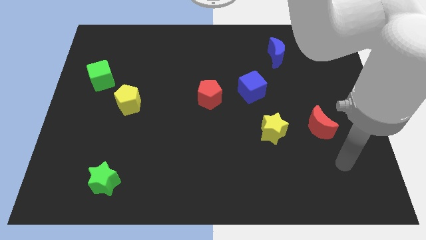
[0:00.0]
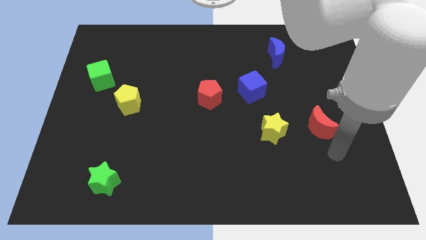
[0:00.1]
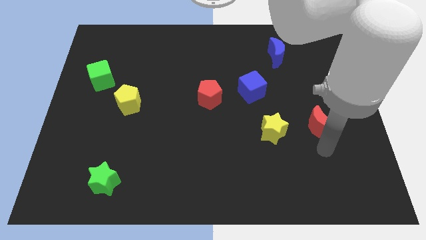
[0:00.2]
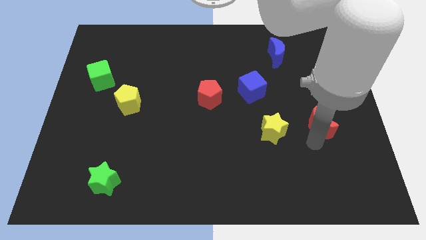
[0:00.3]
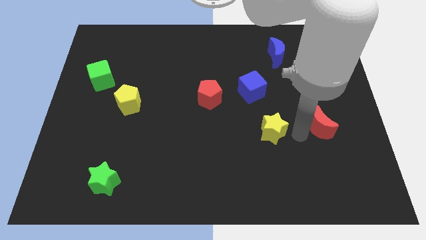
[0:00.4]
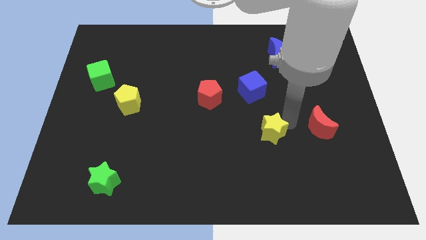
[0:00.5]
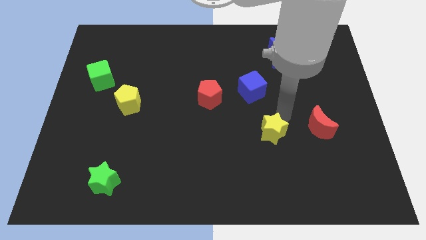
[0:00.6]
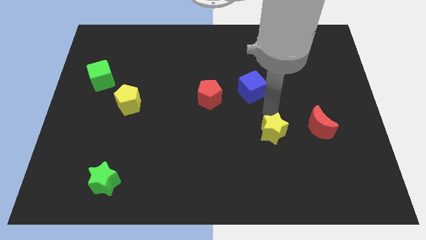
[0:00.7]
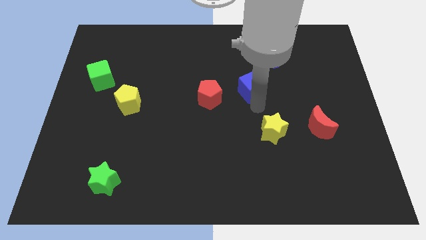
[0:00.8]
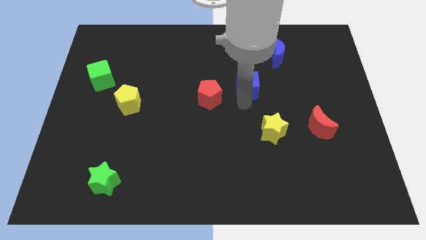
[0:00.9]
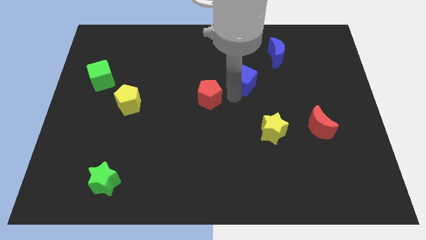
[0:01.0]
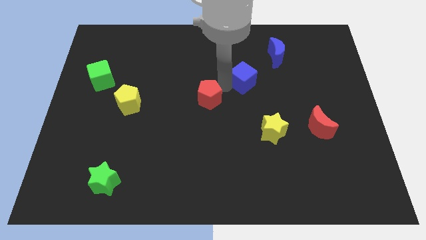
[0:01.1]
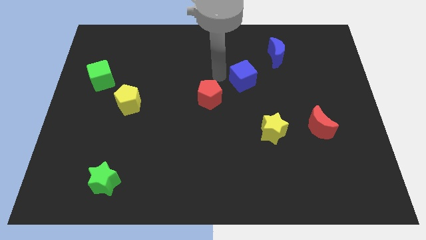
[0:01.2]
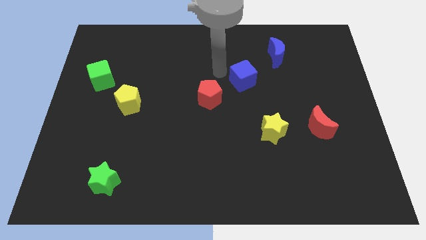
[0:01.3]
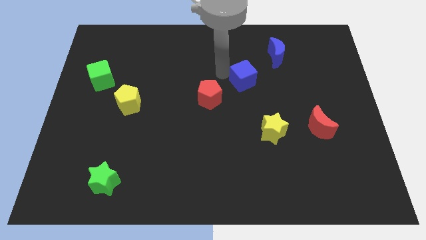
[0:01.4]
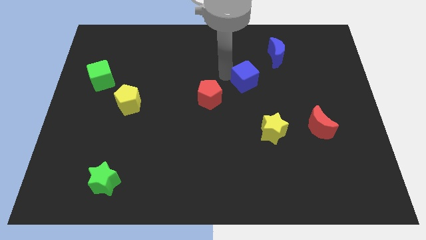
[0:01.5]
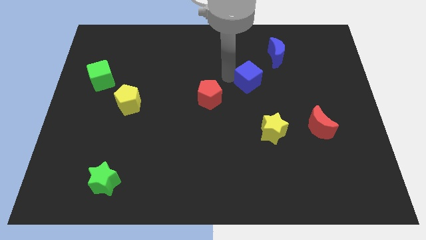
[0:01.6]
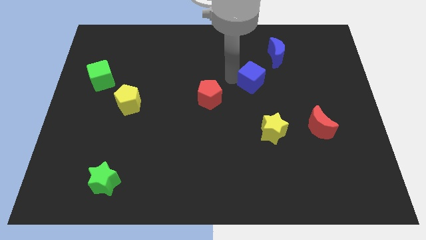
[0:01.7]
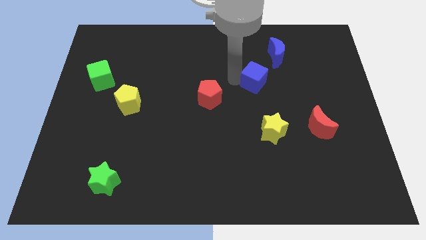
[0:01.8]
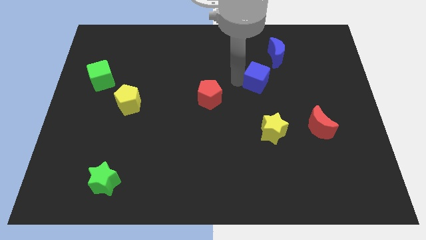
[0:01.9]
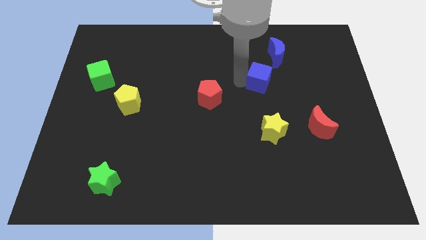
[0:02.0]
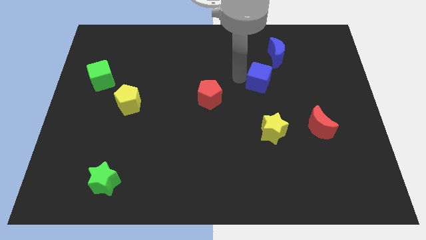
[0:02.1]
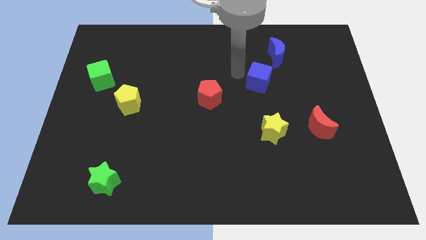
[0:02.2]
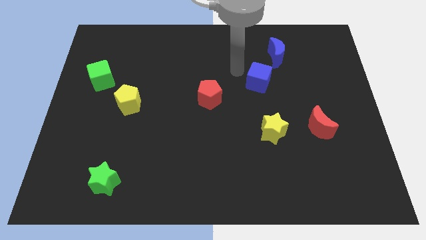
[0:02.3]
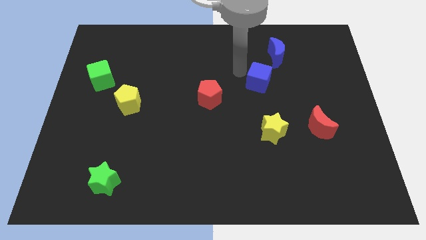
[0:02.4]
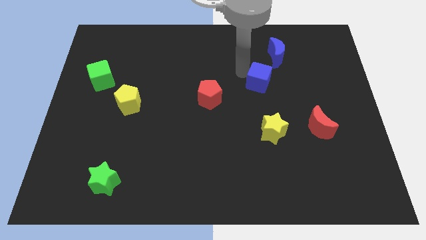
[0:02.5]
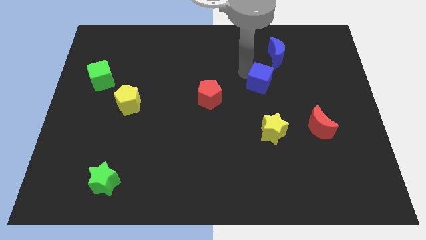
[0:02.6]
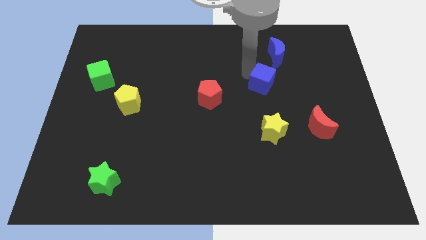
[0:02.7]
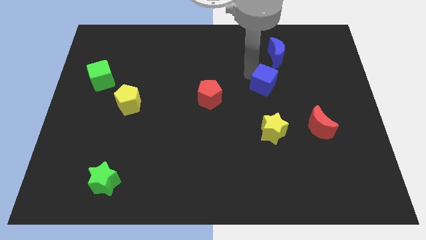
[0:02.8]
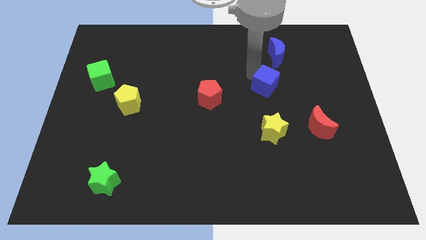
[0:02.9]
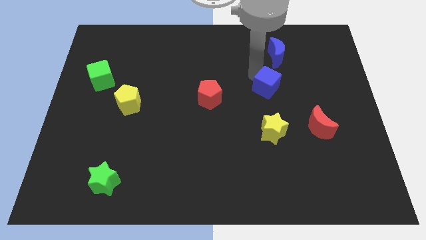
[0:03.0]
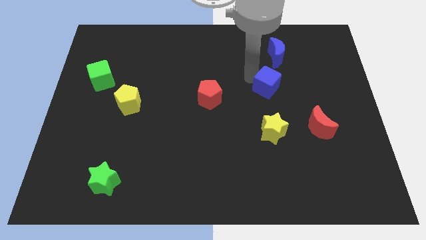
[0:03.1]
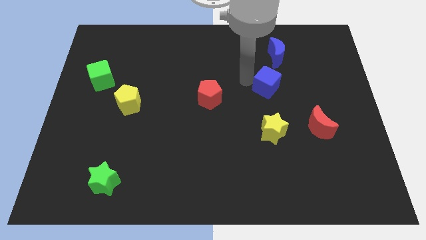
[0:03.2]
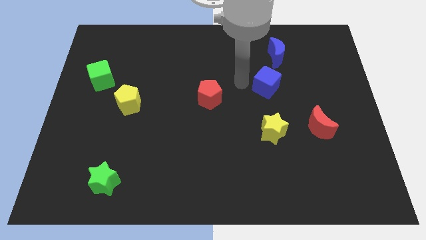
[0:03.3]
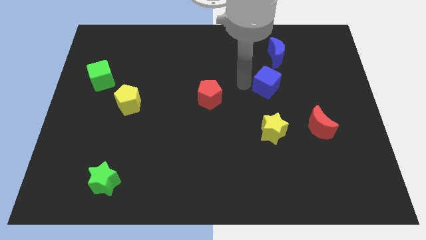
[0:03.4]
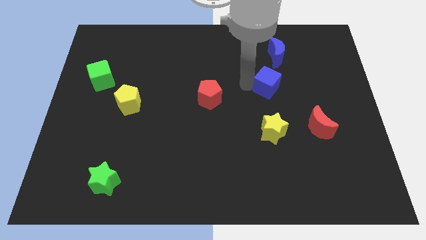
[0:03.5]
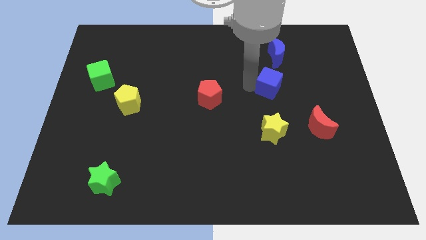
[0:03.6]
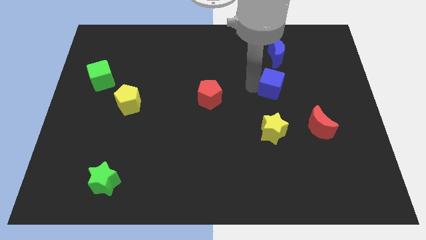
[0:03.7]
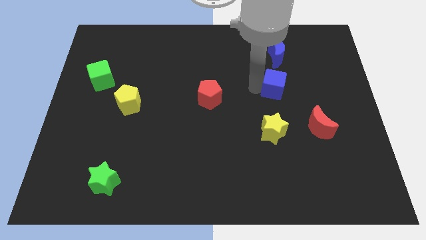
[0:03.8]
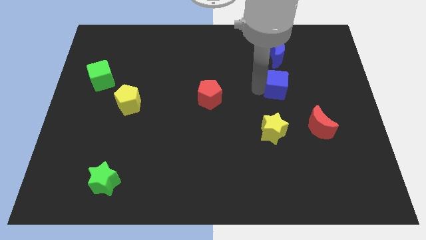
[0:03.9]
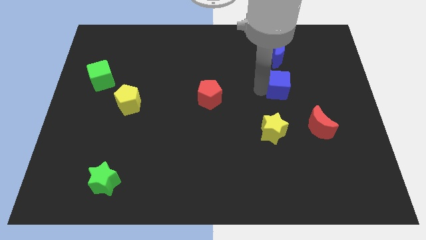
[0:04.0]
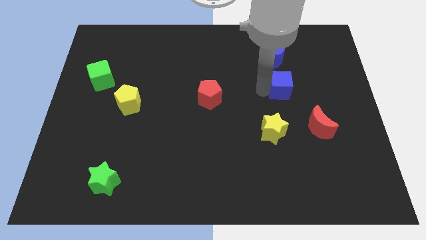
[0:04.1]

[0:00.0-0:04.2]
slightly move the blue cube right

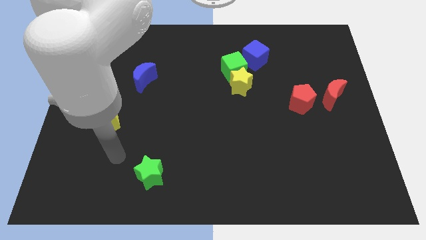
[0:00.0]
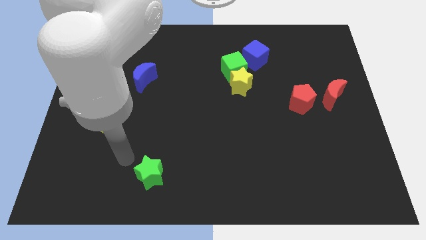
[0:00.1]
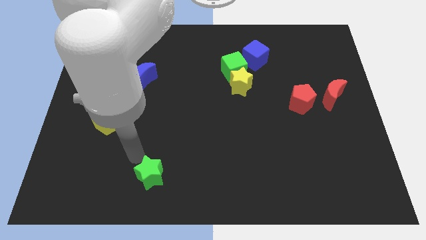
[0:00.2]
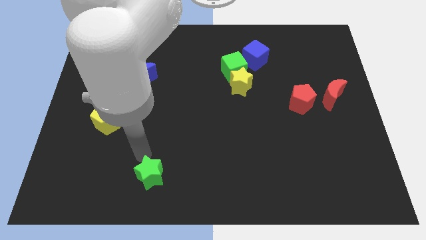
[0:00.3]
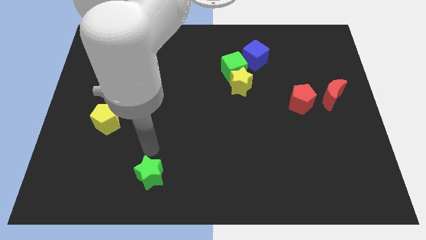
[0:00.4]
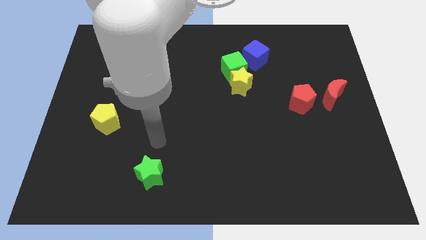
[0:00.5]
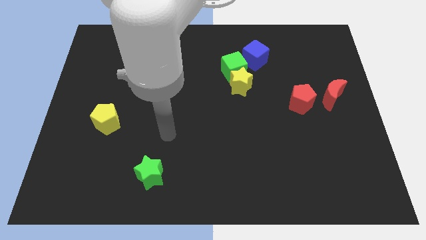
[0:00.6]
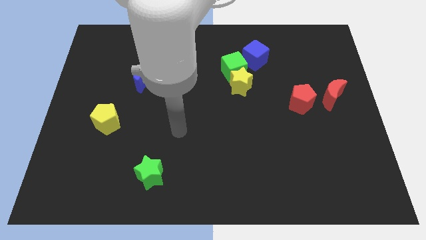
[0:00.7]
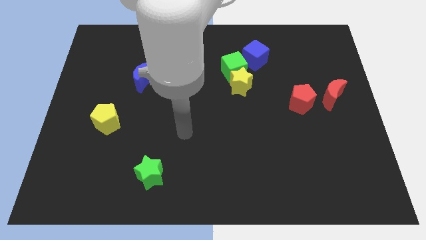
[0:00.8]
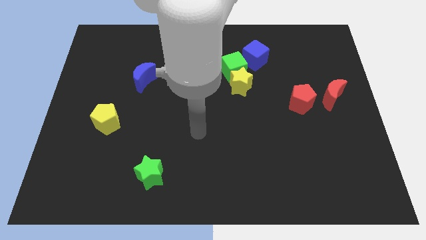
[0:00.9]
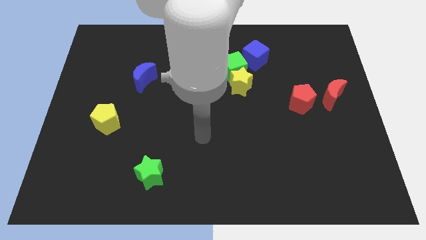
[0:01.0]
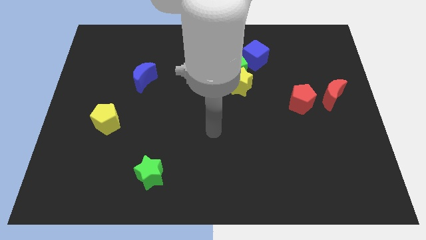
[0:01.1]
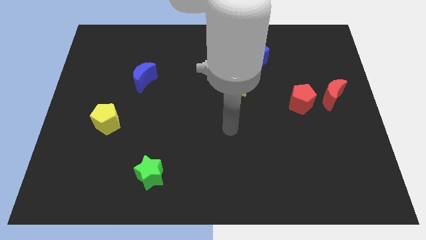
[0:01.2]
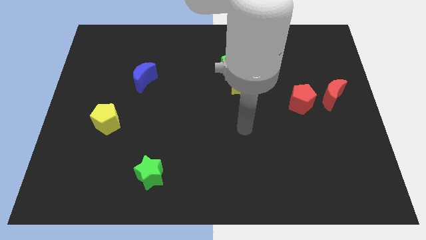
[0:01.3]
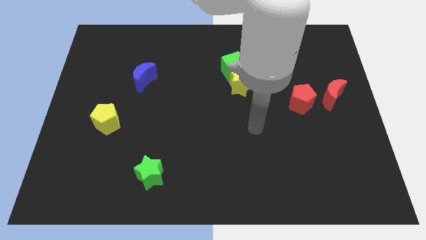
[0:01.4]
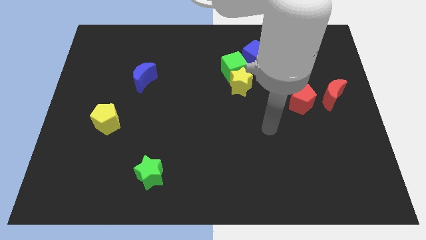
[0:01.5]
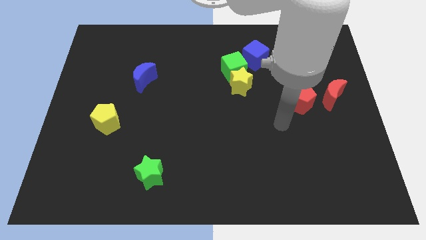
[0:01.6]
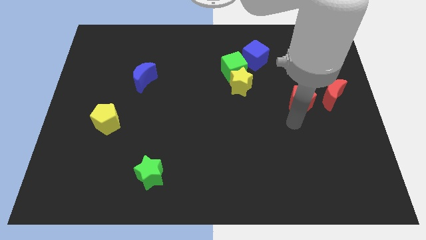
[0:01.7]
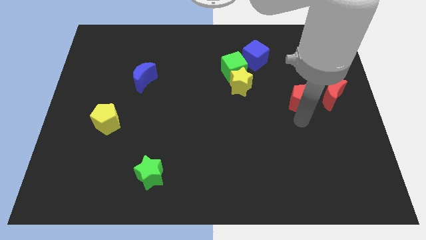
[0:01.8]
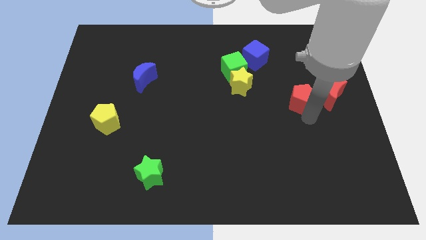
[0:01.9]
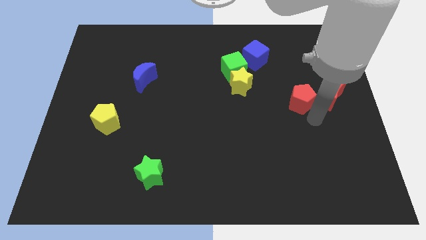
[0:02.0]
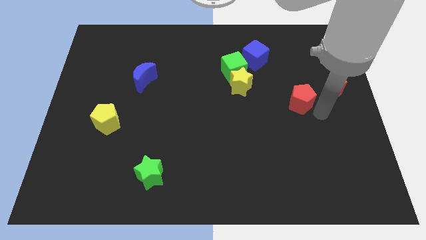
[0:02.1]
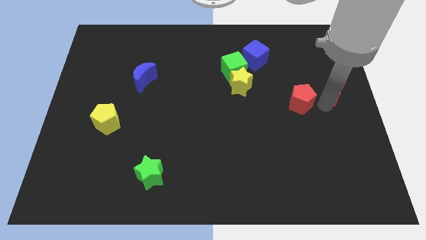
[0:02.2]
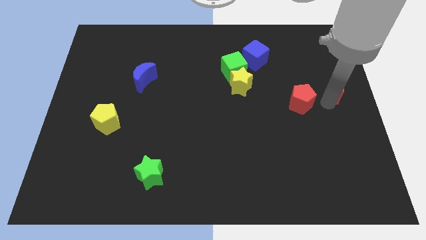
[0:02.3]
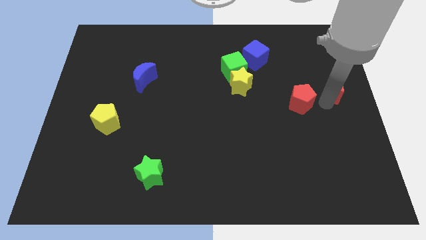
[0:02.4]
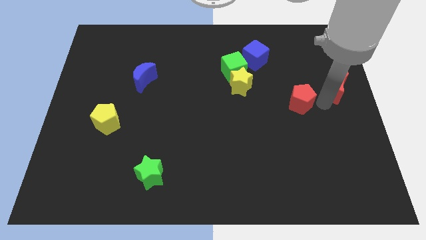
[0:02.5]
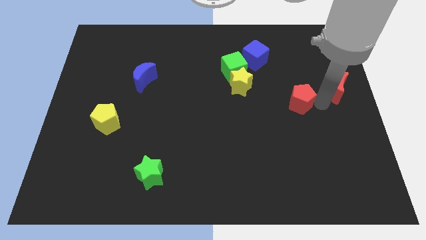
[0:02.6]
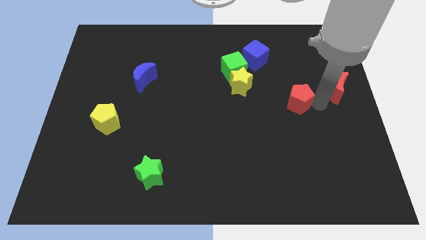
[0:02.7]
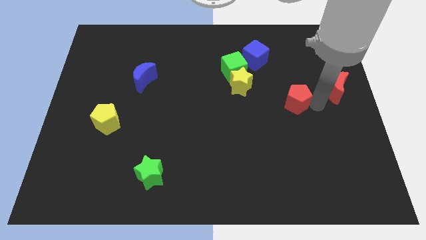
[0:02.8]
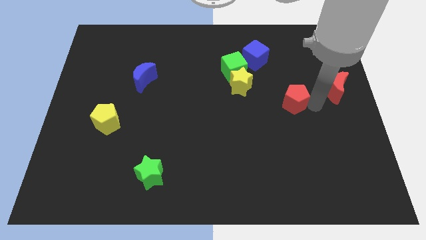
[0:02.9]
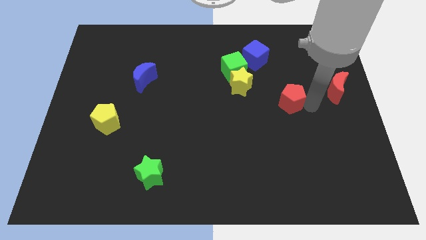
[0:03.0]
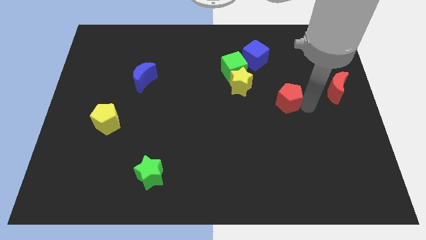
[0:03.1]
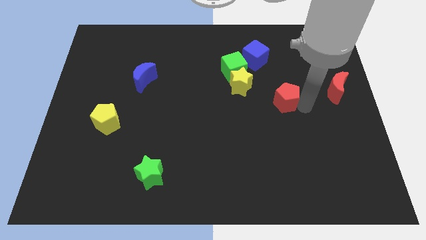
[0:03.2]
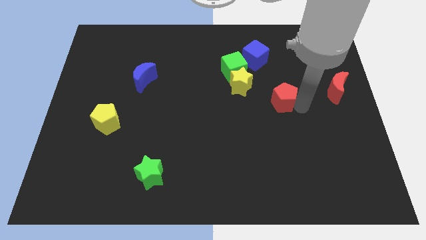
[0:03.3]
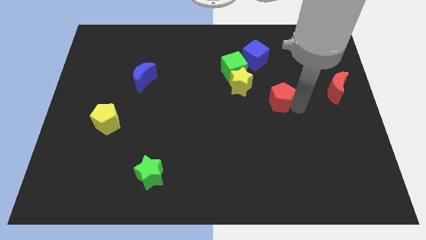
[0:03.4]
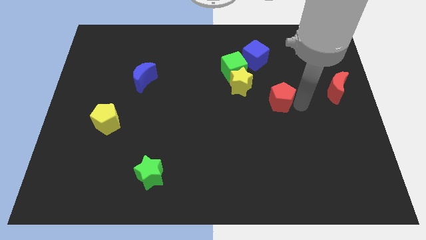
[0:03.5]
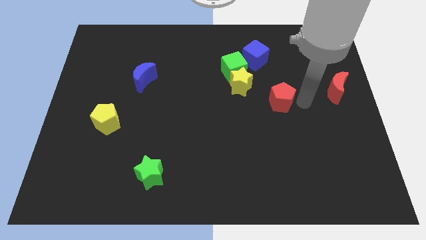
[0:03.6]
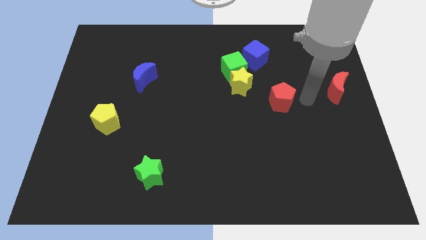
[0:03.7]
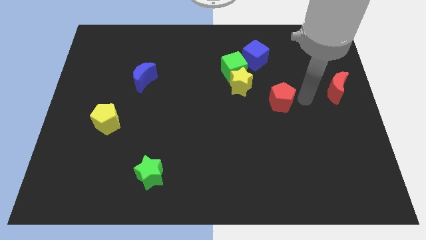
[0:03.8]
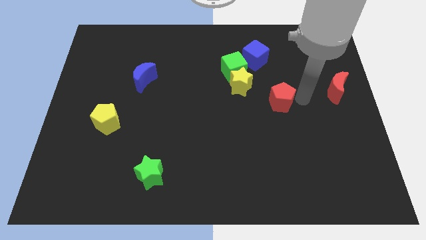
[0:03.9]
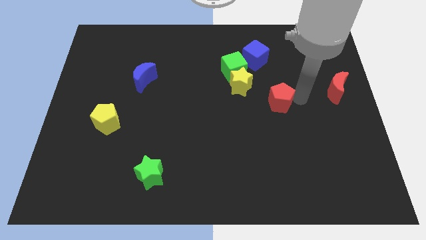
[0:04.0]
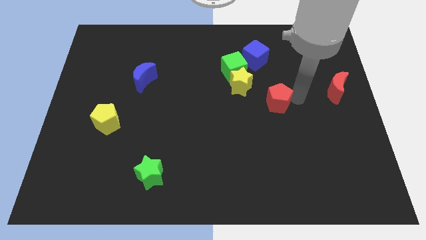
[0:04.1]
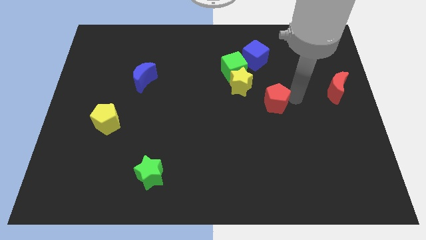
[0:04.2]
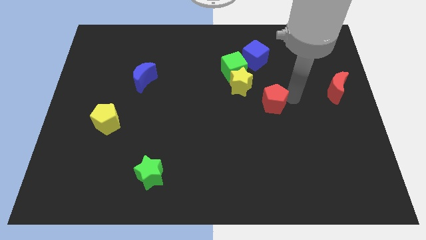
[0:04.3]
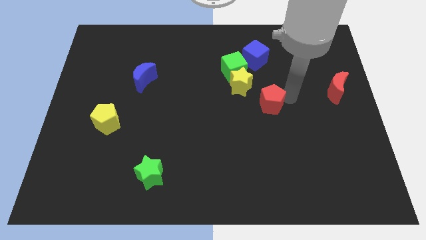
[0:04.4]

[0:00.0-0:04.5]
slightly push the red pentagon to the left
